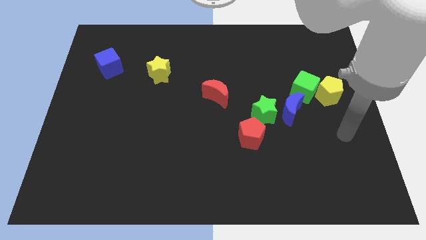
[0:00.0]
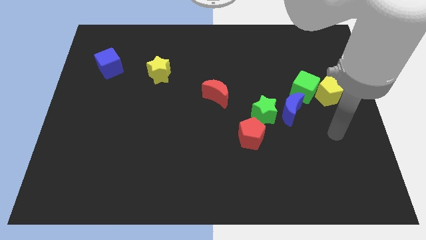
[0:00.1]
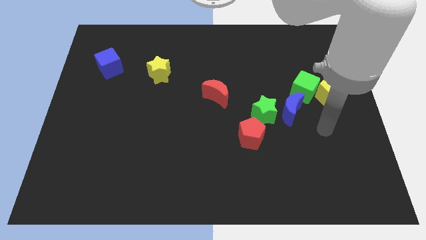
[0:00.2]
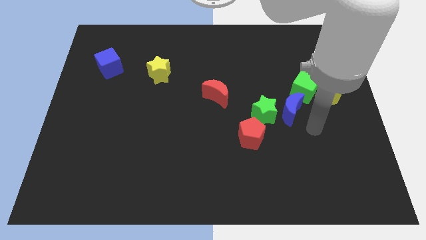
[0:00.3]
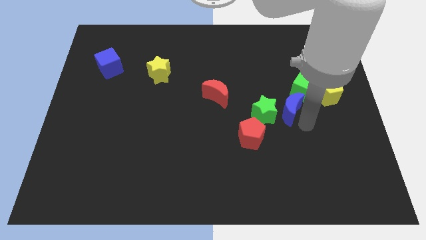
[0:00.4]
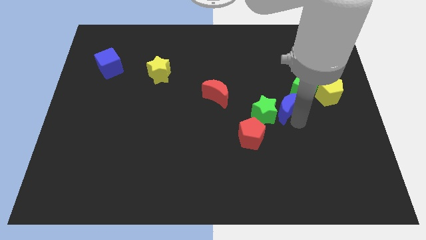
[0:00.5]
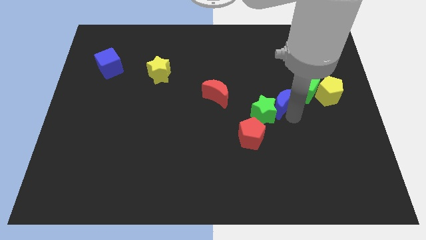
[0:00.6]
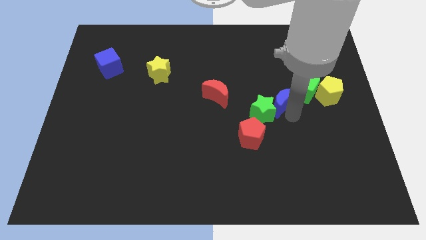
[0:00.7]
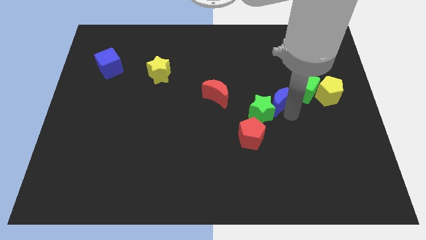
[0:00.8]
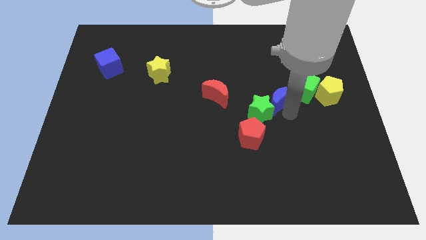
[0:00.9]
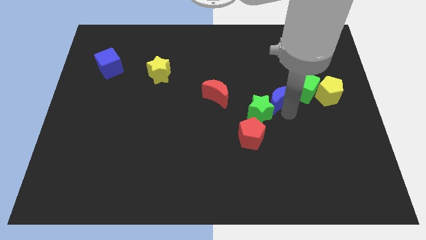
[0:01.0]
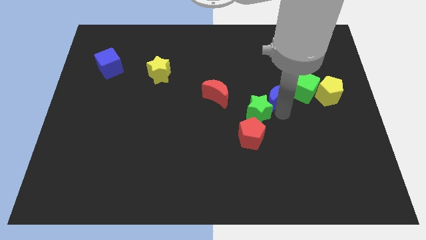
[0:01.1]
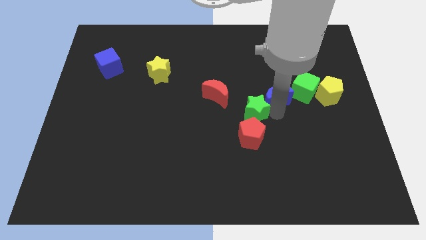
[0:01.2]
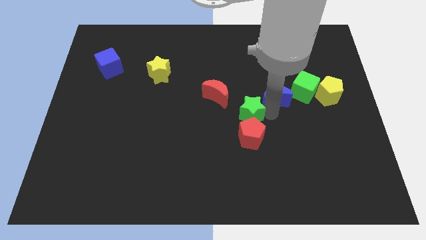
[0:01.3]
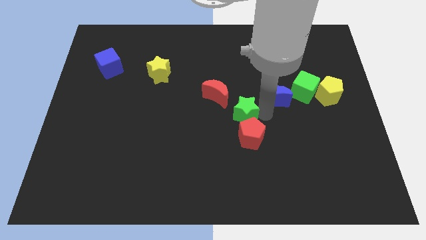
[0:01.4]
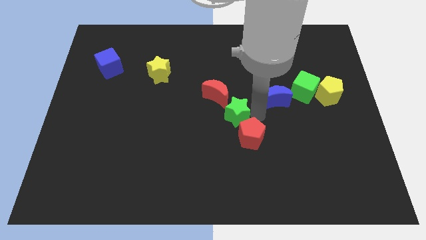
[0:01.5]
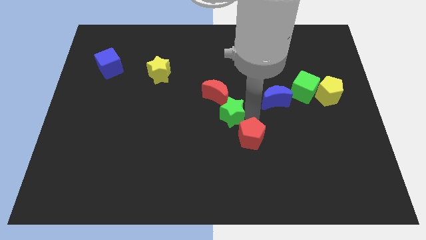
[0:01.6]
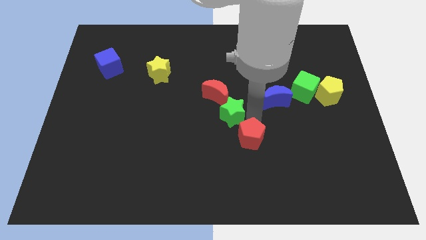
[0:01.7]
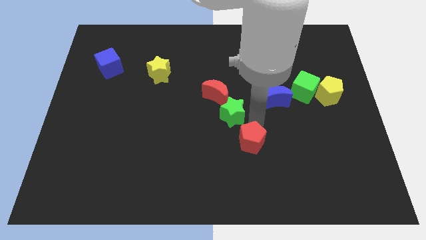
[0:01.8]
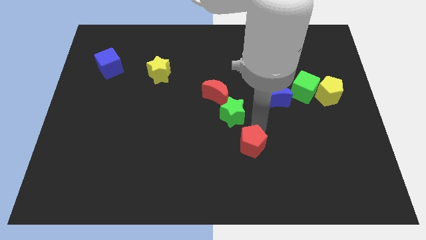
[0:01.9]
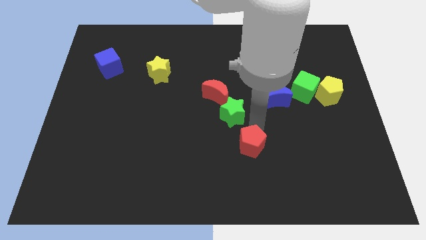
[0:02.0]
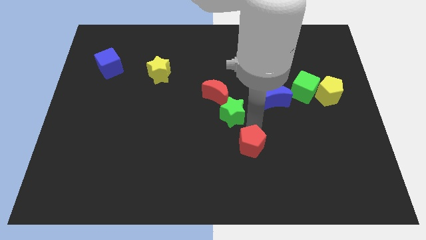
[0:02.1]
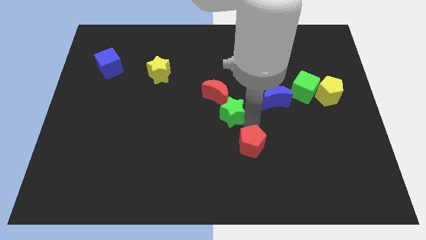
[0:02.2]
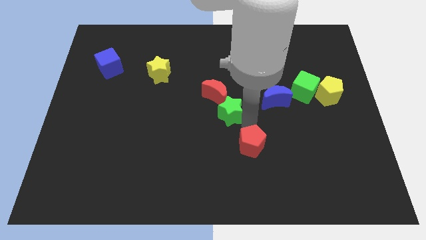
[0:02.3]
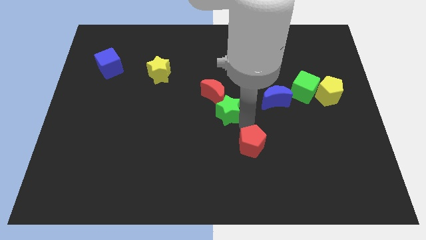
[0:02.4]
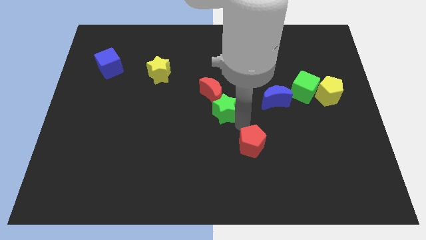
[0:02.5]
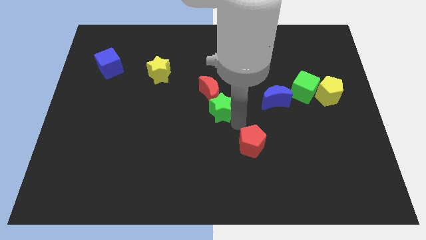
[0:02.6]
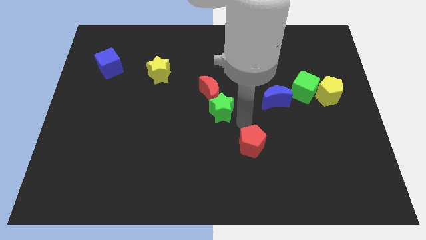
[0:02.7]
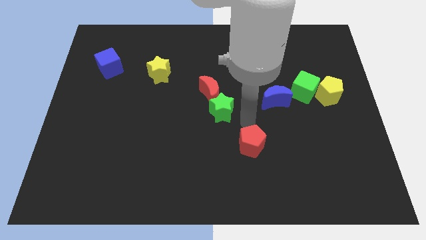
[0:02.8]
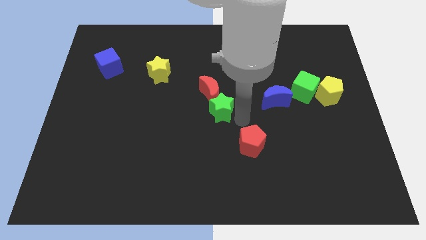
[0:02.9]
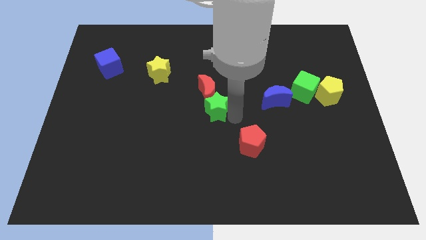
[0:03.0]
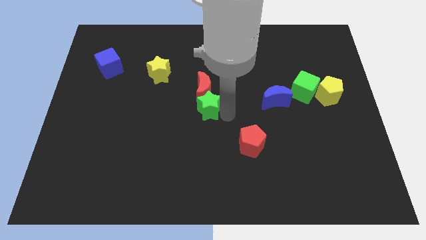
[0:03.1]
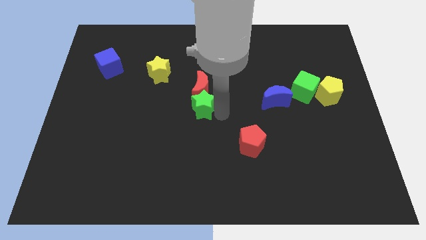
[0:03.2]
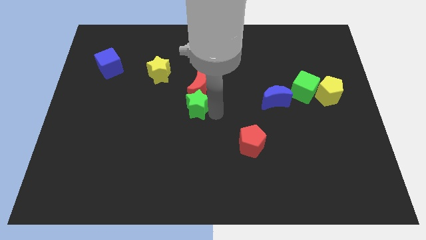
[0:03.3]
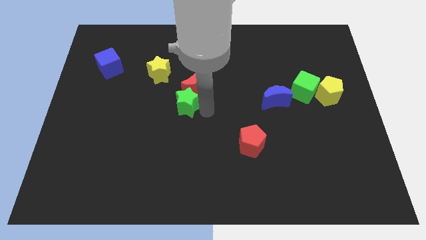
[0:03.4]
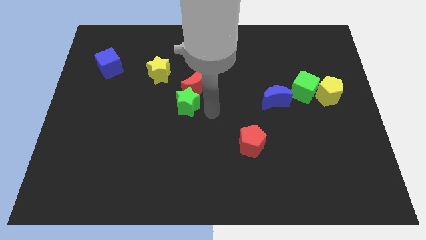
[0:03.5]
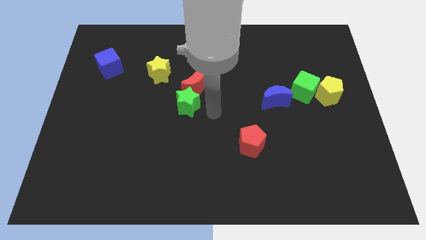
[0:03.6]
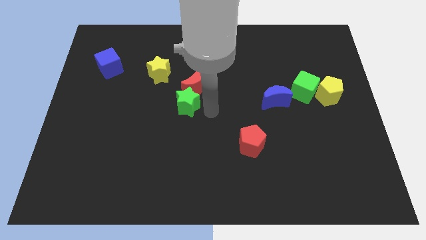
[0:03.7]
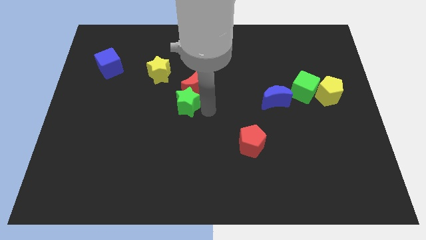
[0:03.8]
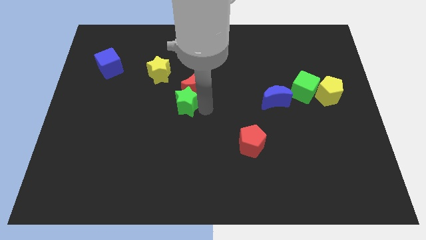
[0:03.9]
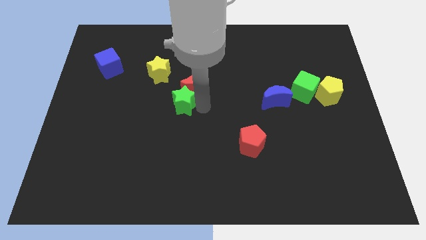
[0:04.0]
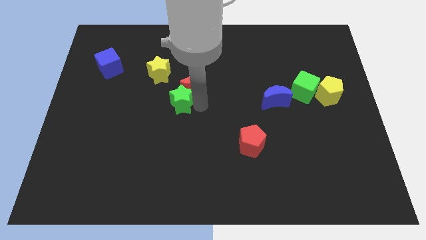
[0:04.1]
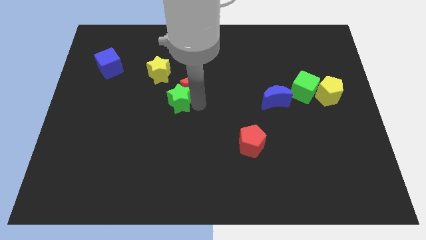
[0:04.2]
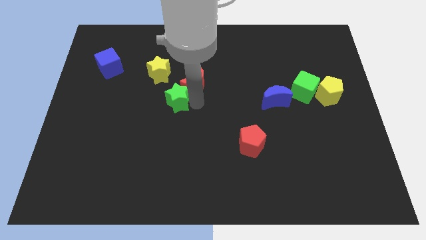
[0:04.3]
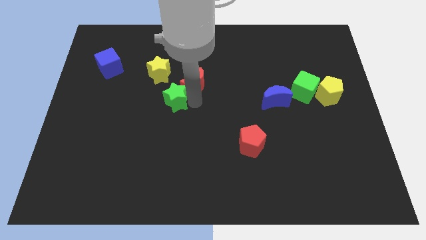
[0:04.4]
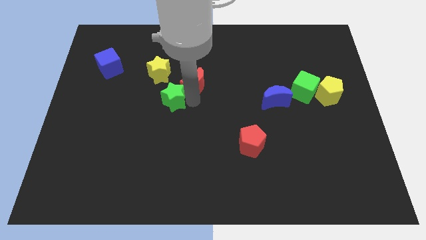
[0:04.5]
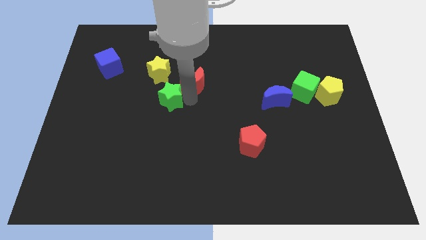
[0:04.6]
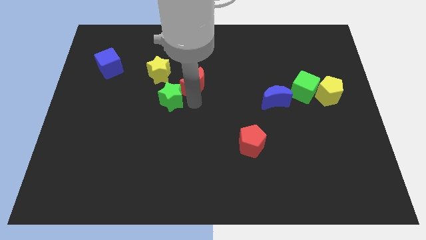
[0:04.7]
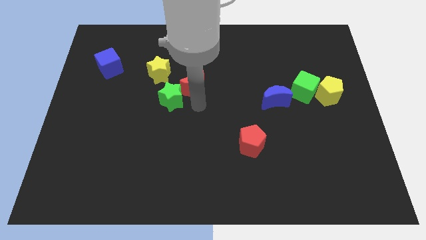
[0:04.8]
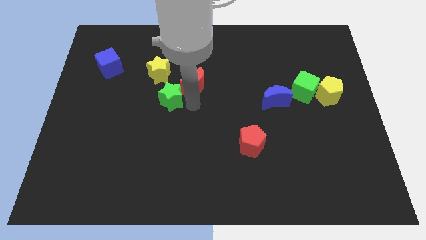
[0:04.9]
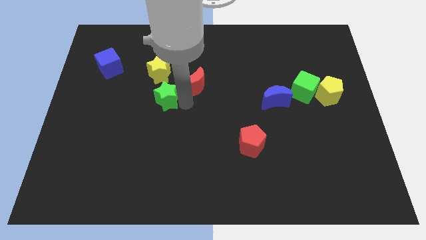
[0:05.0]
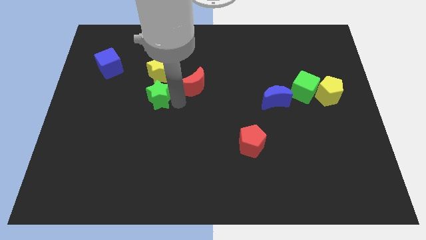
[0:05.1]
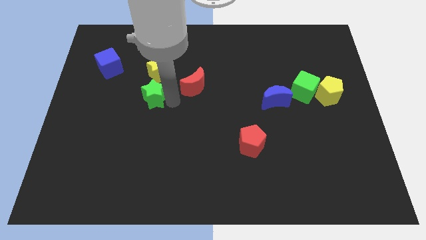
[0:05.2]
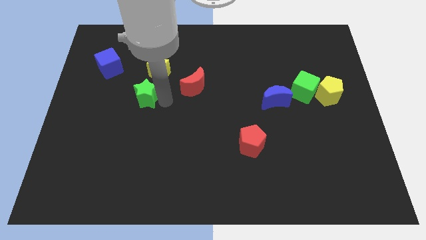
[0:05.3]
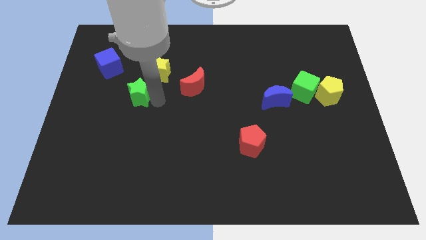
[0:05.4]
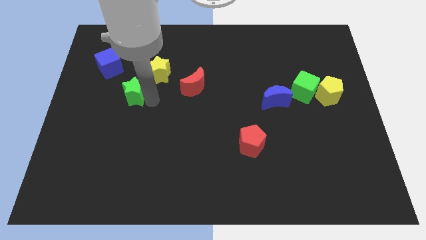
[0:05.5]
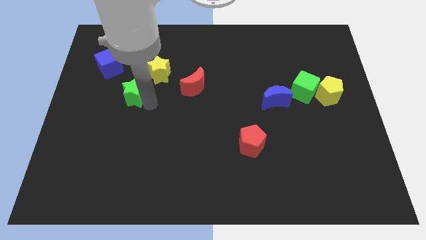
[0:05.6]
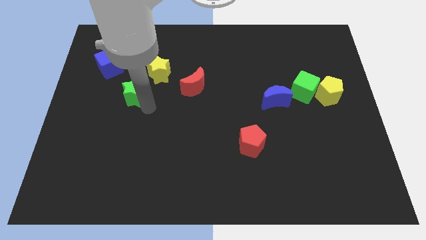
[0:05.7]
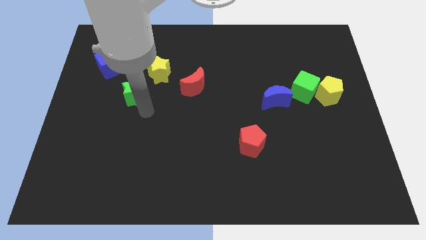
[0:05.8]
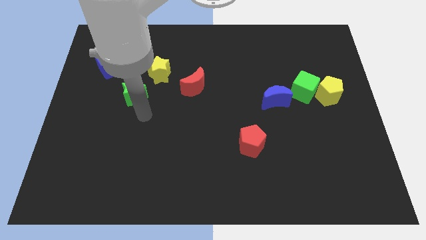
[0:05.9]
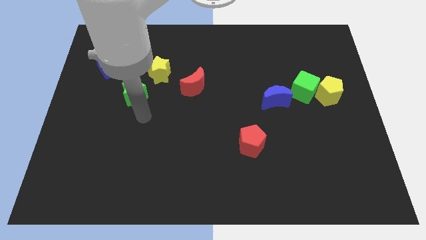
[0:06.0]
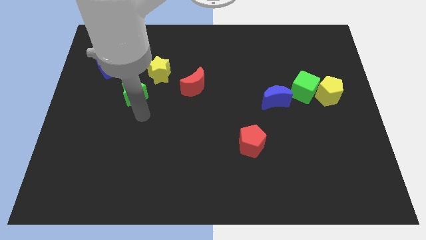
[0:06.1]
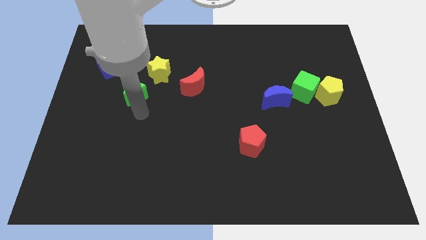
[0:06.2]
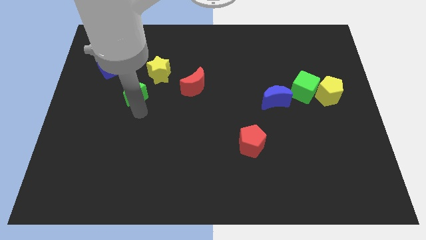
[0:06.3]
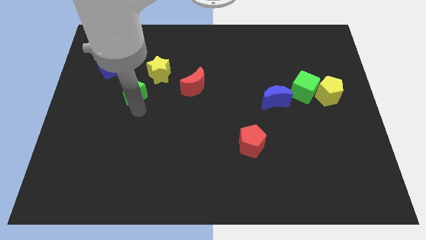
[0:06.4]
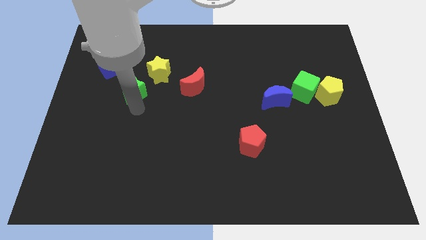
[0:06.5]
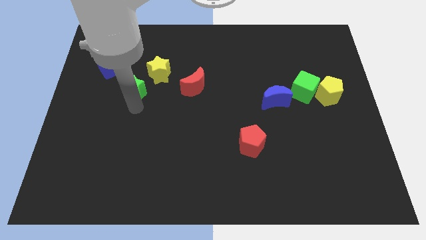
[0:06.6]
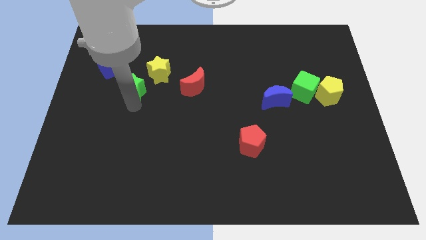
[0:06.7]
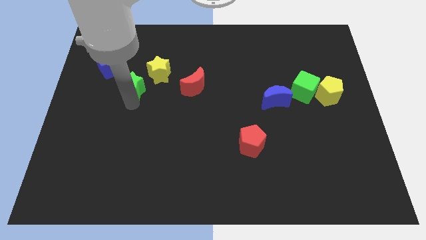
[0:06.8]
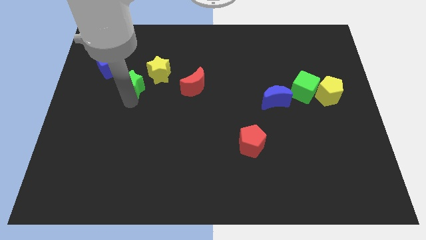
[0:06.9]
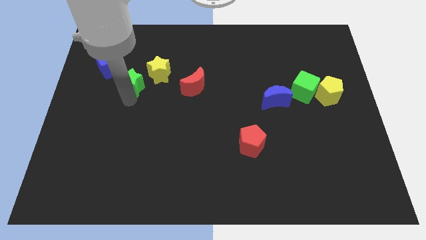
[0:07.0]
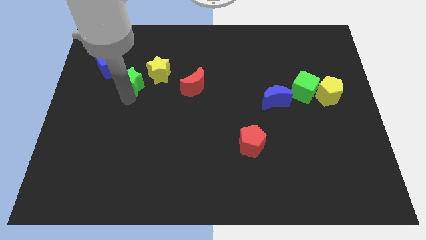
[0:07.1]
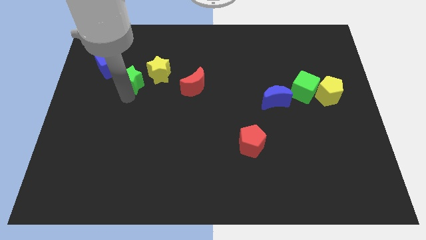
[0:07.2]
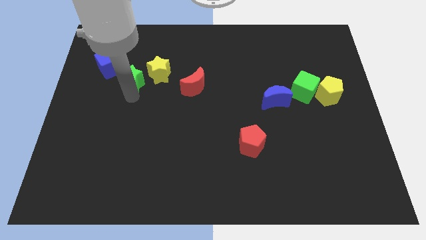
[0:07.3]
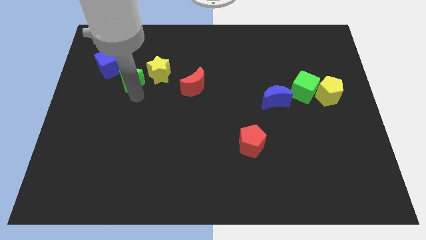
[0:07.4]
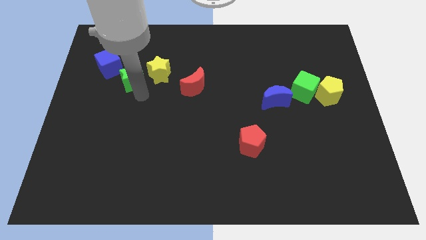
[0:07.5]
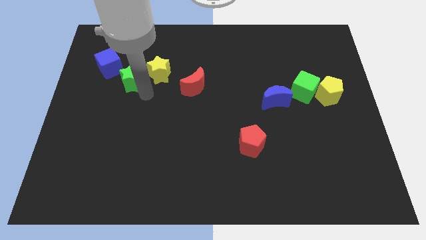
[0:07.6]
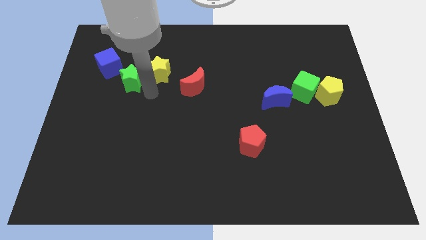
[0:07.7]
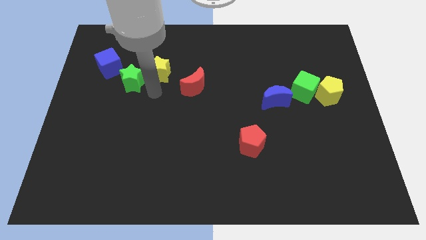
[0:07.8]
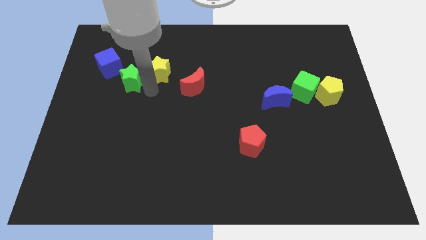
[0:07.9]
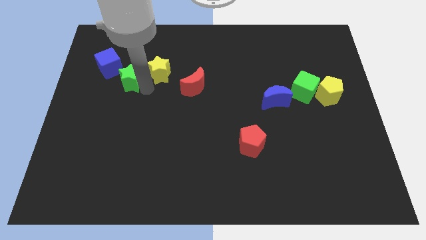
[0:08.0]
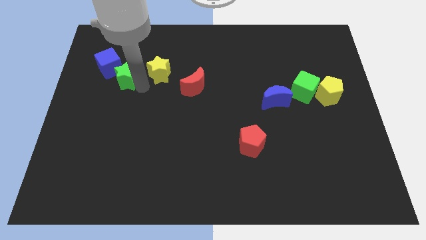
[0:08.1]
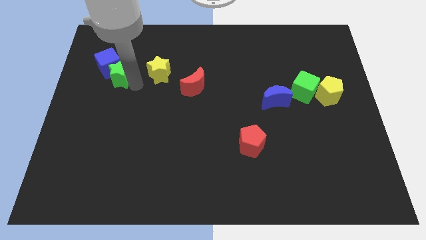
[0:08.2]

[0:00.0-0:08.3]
put the green star next to the blue cube
